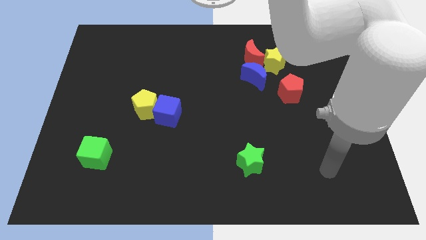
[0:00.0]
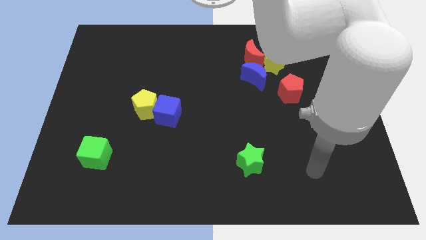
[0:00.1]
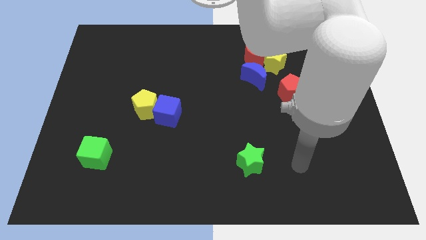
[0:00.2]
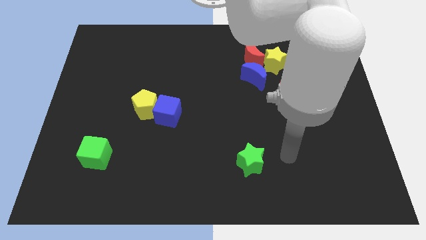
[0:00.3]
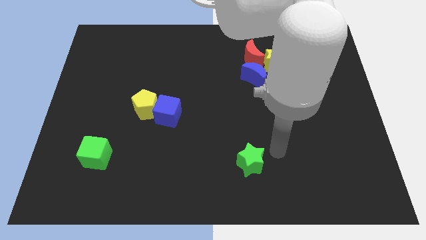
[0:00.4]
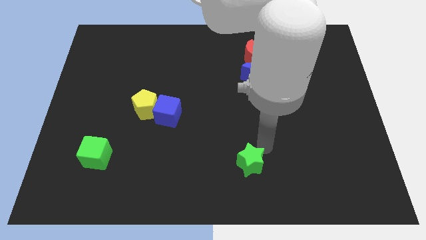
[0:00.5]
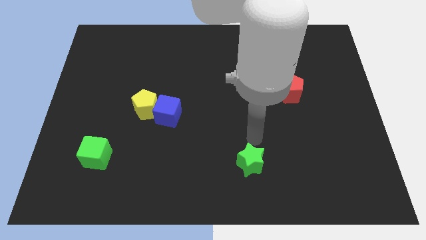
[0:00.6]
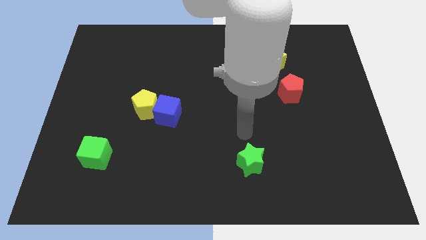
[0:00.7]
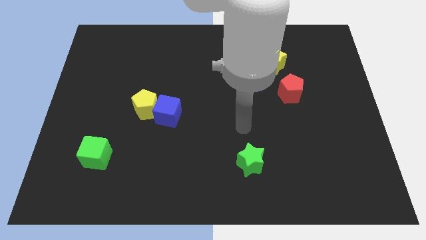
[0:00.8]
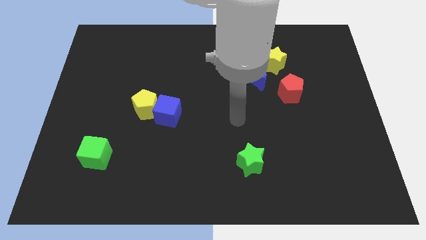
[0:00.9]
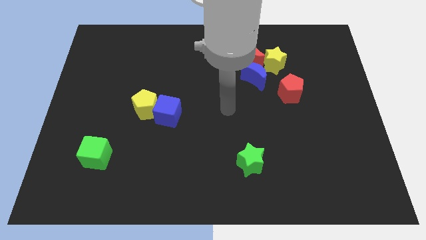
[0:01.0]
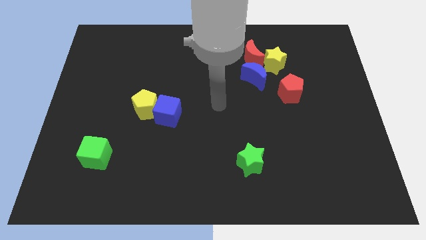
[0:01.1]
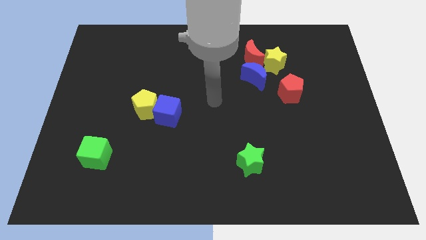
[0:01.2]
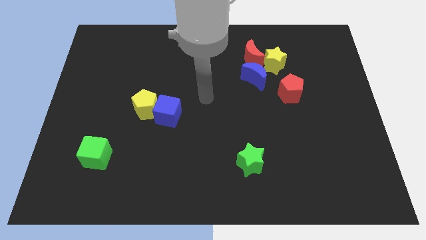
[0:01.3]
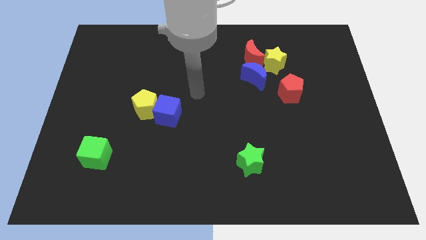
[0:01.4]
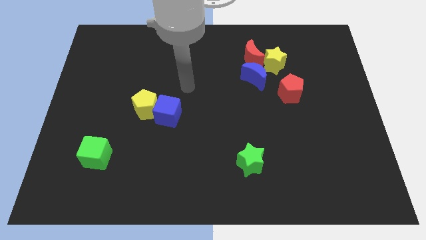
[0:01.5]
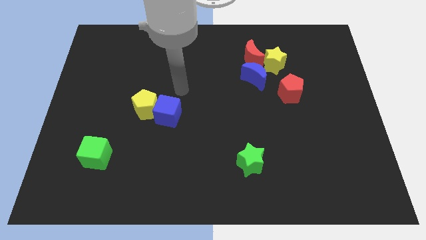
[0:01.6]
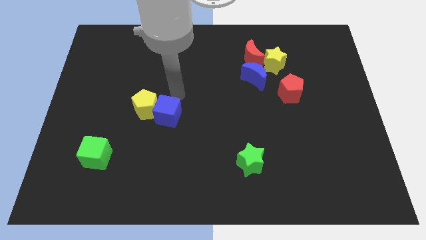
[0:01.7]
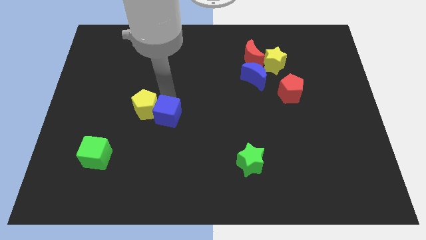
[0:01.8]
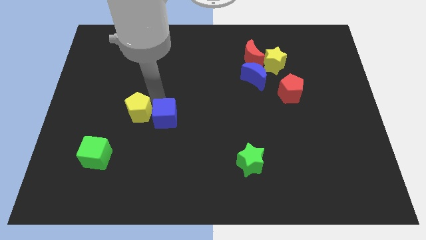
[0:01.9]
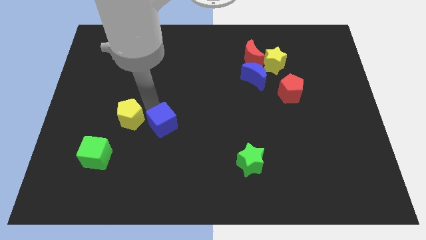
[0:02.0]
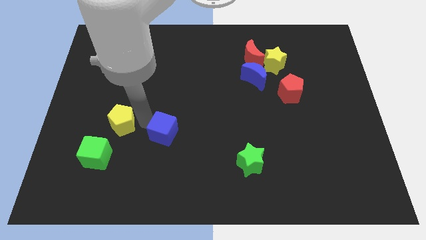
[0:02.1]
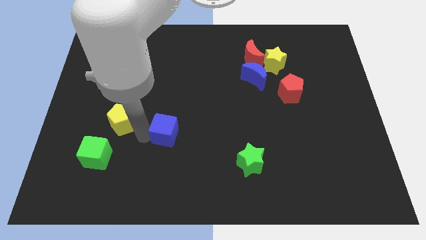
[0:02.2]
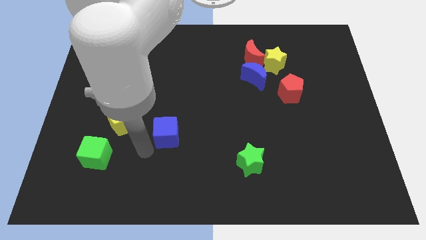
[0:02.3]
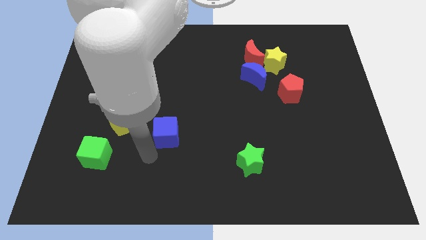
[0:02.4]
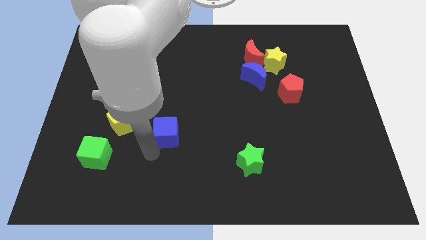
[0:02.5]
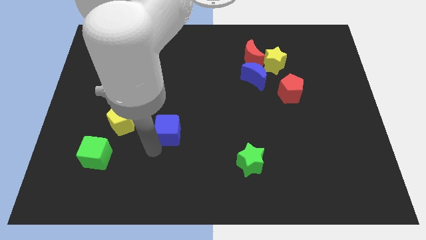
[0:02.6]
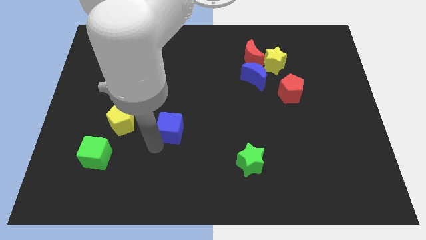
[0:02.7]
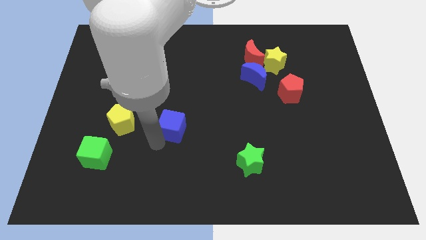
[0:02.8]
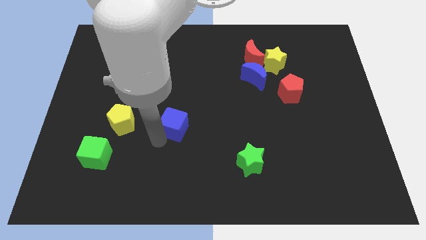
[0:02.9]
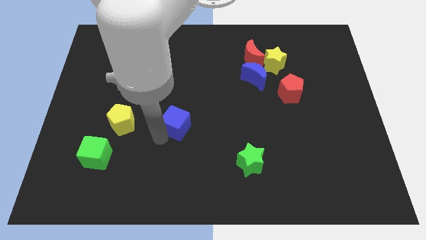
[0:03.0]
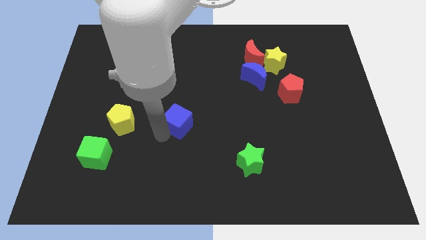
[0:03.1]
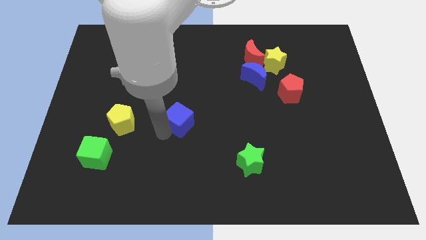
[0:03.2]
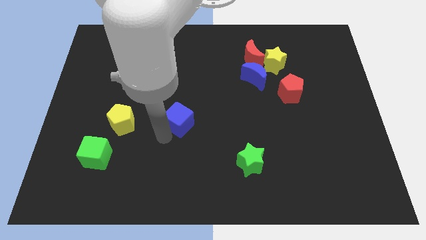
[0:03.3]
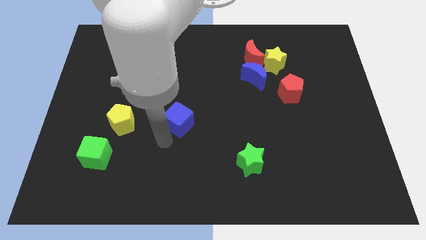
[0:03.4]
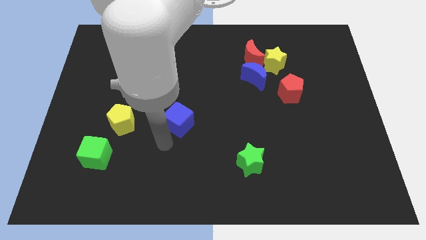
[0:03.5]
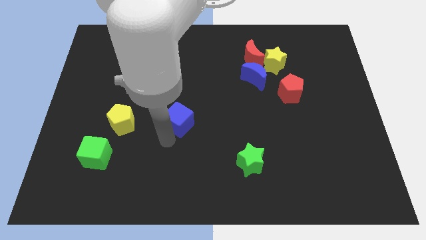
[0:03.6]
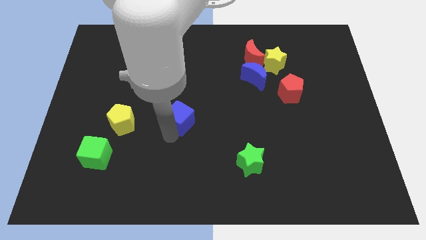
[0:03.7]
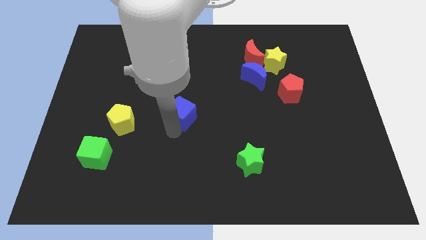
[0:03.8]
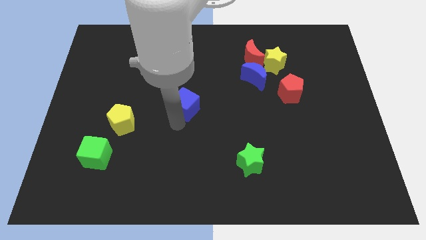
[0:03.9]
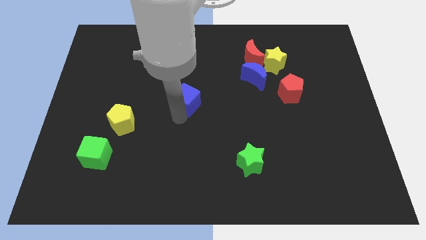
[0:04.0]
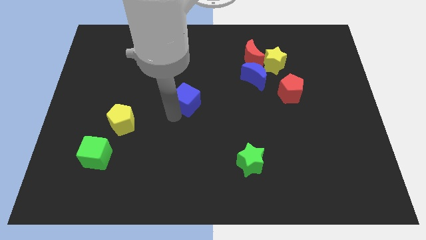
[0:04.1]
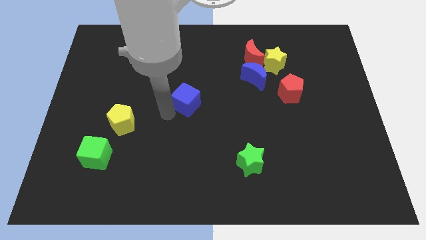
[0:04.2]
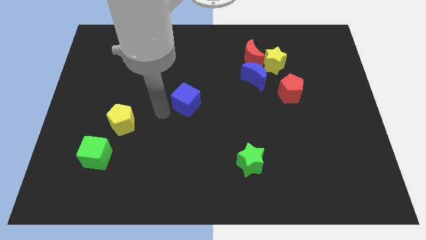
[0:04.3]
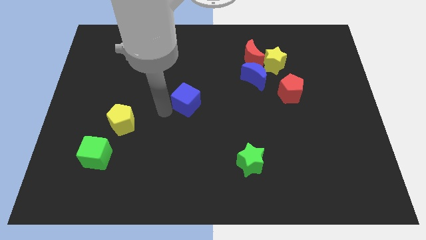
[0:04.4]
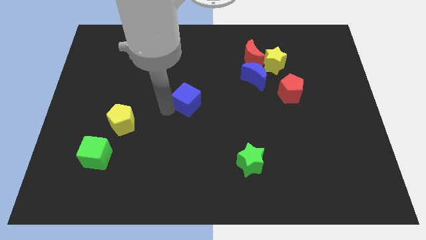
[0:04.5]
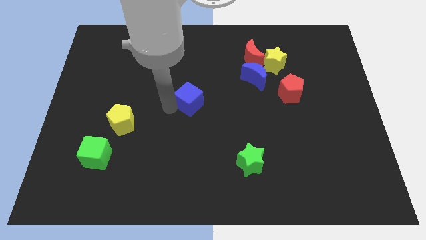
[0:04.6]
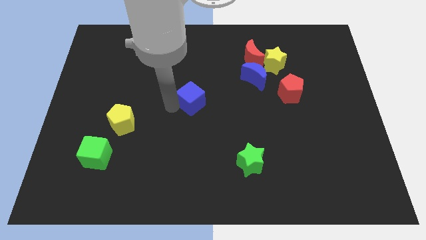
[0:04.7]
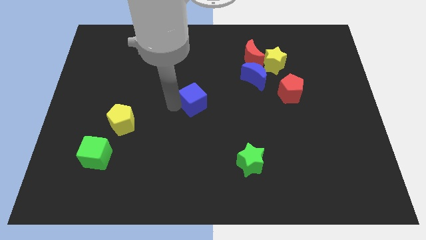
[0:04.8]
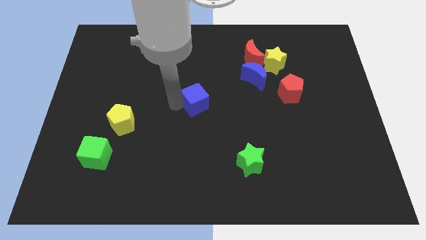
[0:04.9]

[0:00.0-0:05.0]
slide the blue cube slightly upwards and then right

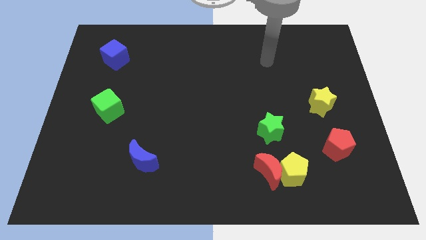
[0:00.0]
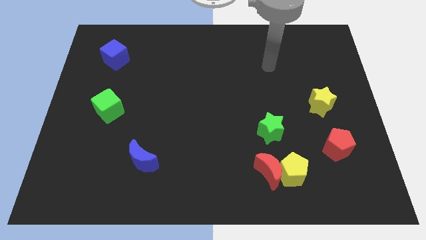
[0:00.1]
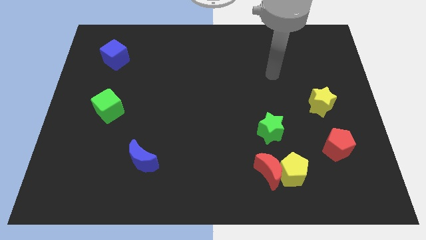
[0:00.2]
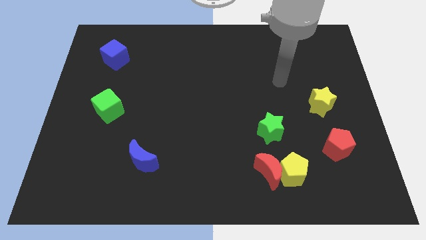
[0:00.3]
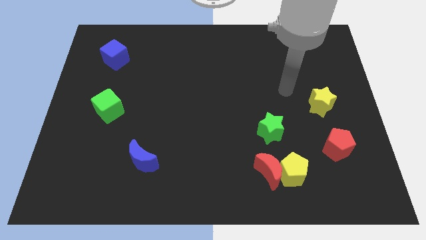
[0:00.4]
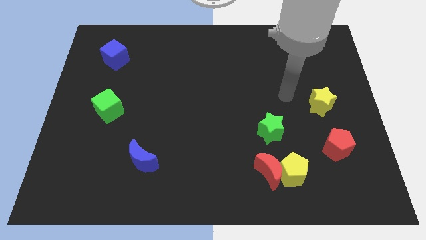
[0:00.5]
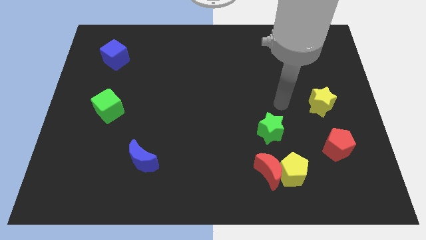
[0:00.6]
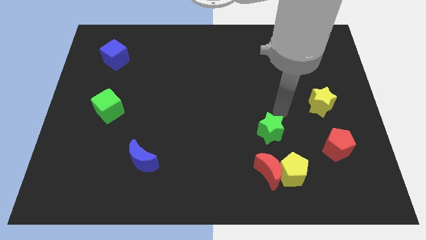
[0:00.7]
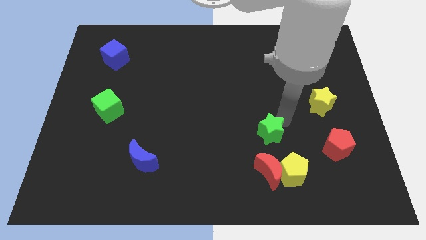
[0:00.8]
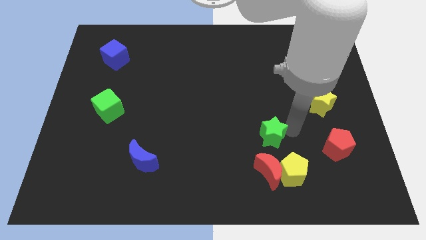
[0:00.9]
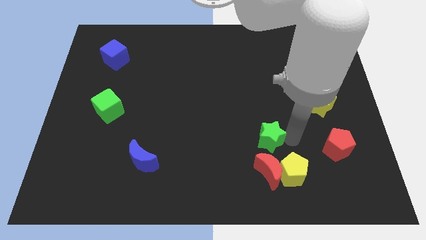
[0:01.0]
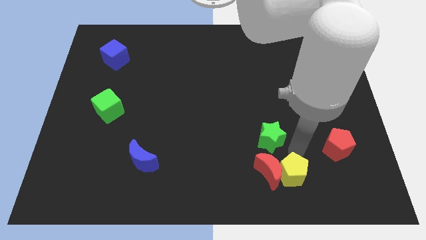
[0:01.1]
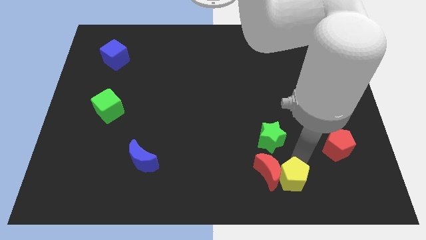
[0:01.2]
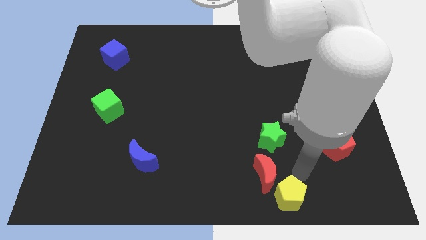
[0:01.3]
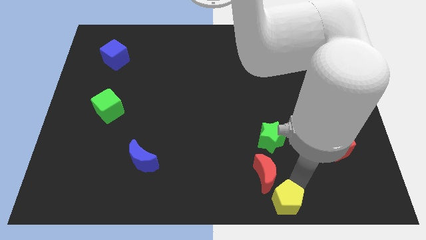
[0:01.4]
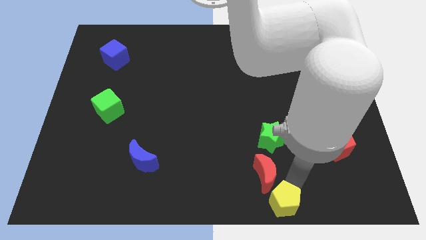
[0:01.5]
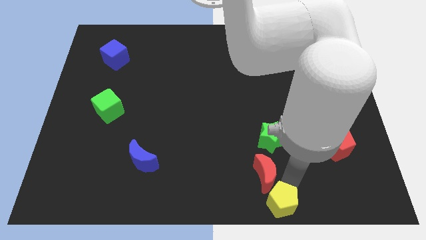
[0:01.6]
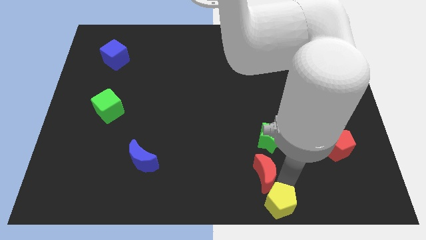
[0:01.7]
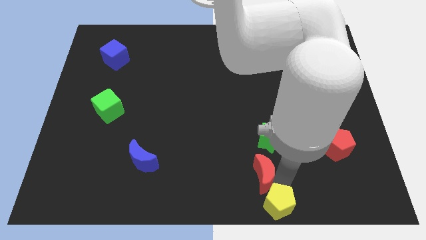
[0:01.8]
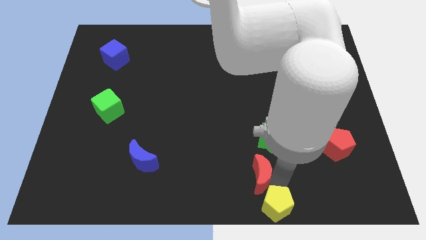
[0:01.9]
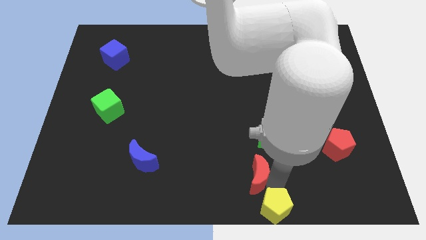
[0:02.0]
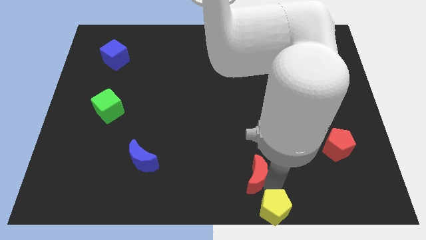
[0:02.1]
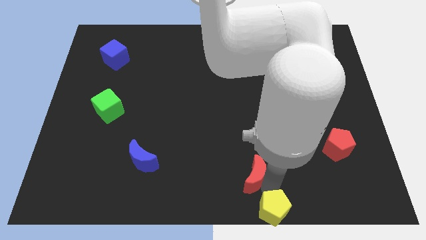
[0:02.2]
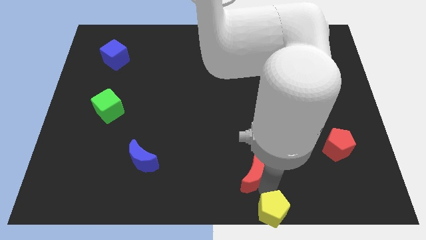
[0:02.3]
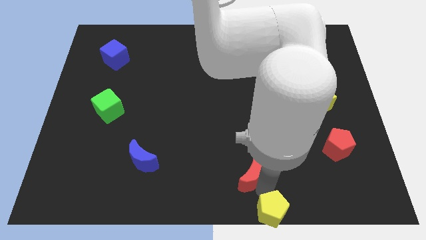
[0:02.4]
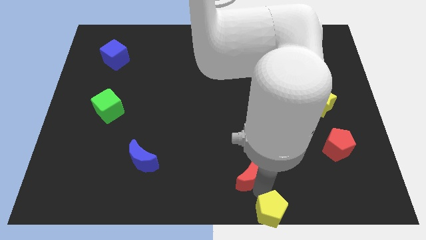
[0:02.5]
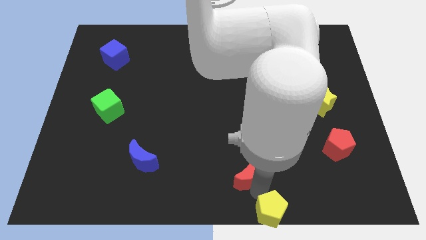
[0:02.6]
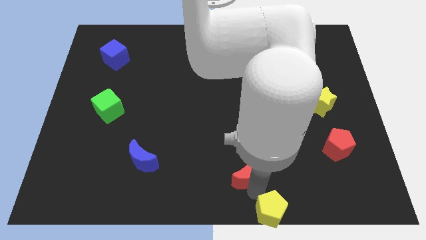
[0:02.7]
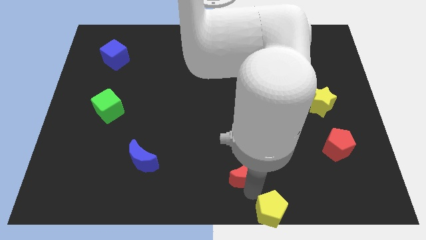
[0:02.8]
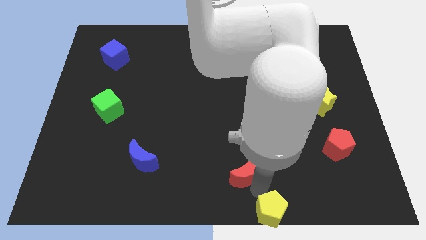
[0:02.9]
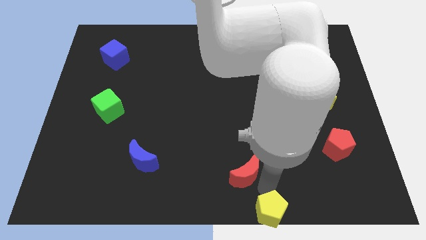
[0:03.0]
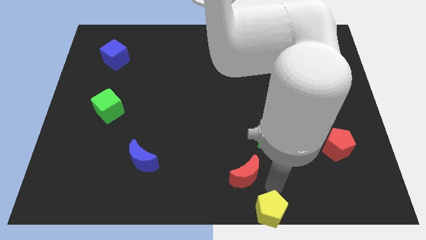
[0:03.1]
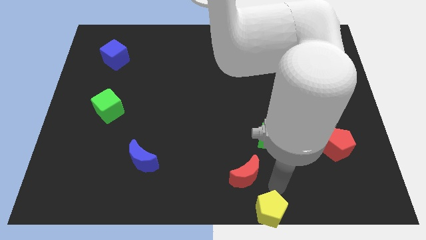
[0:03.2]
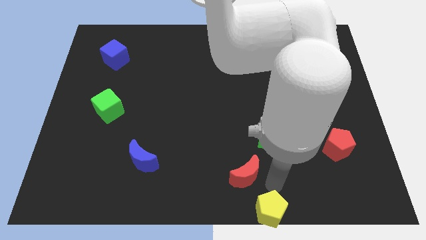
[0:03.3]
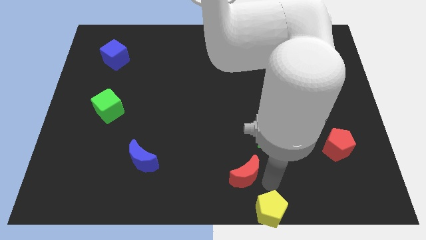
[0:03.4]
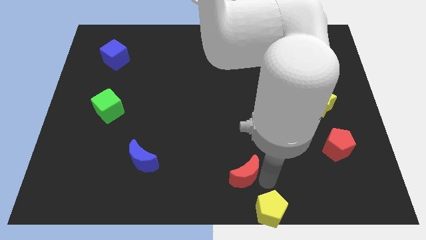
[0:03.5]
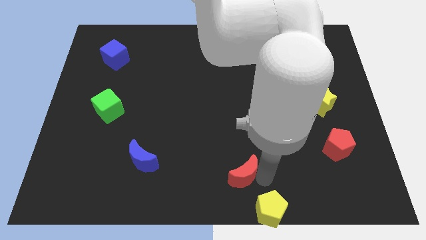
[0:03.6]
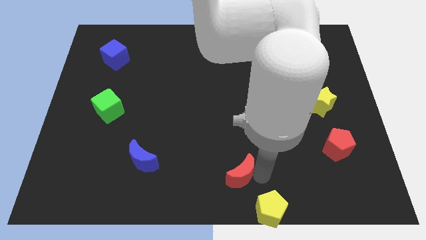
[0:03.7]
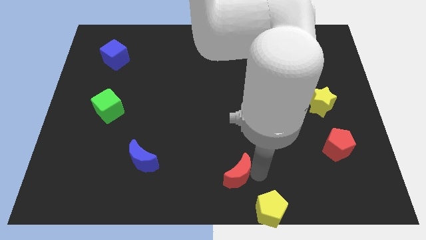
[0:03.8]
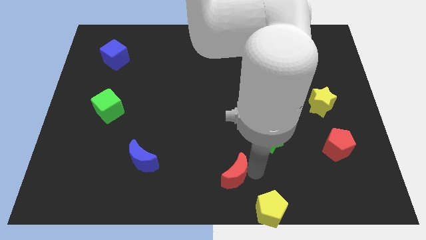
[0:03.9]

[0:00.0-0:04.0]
slide the red moon left a little bit
